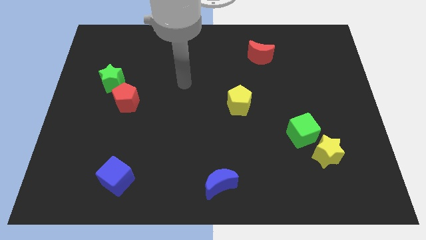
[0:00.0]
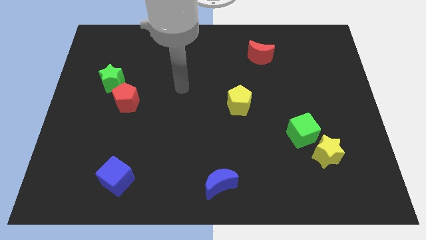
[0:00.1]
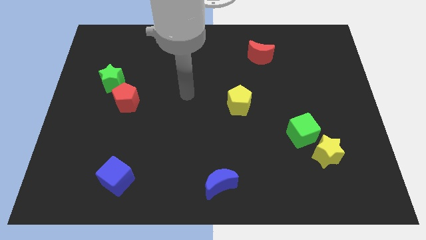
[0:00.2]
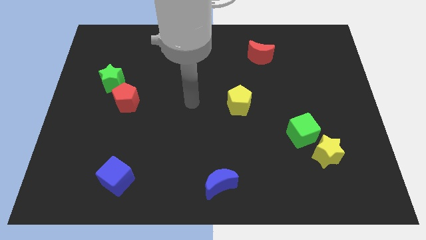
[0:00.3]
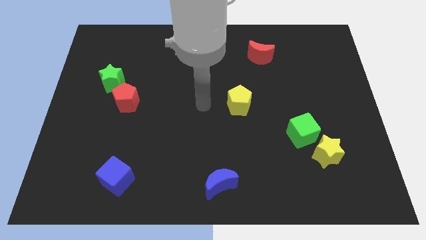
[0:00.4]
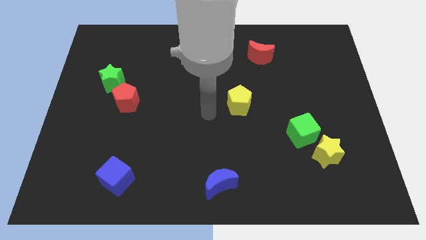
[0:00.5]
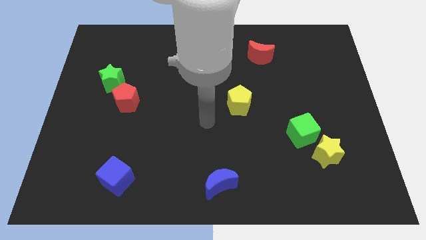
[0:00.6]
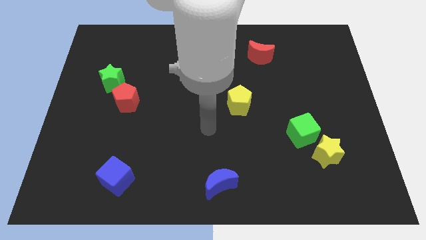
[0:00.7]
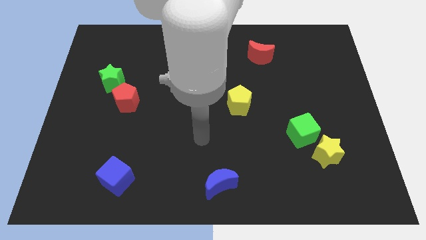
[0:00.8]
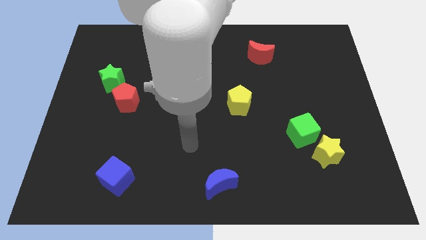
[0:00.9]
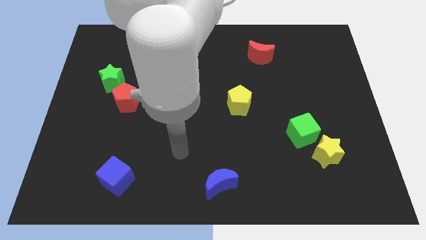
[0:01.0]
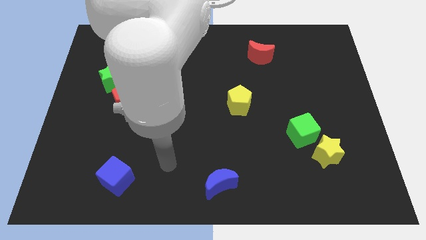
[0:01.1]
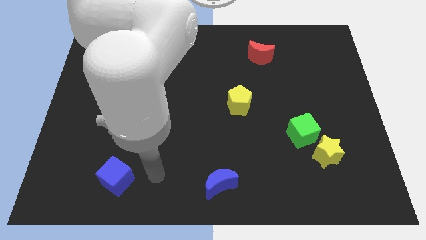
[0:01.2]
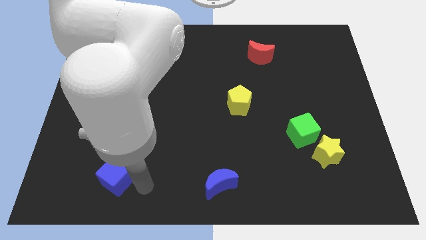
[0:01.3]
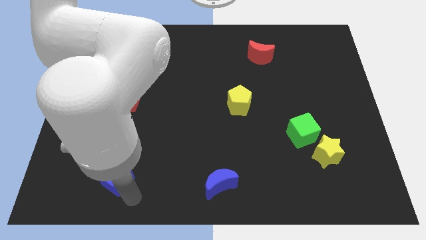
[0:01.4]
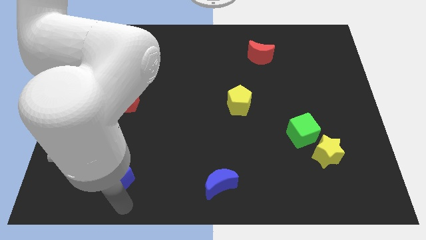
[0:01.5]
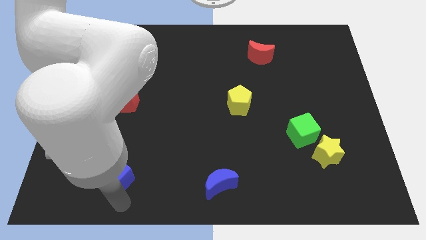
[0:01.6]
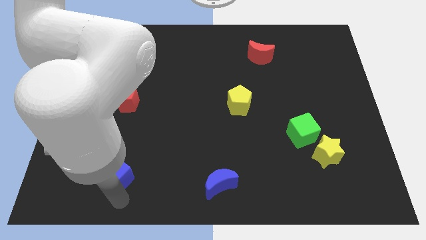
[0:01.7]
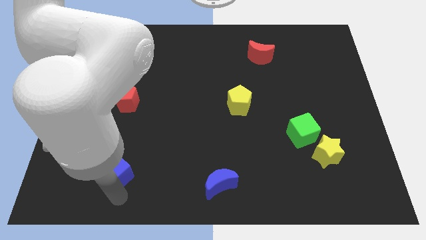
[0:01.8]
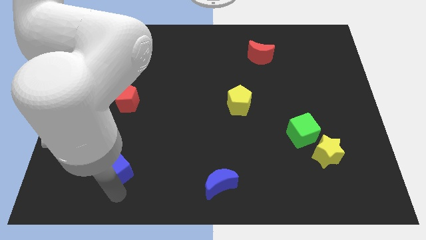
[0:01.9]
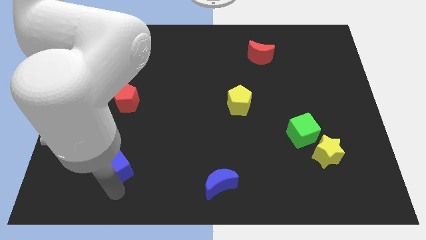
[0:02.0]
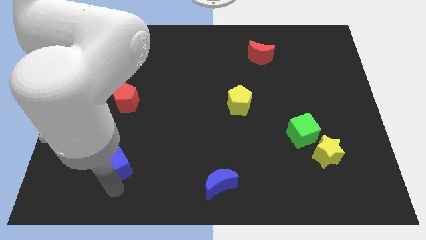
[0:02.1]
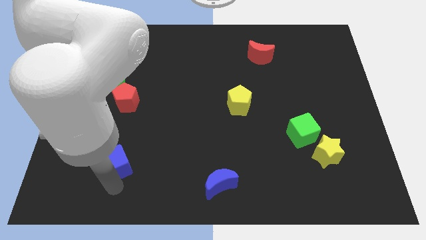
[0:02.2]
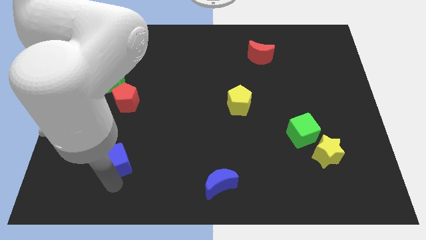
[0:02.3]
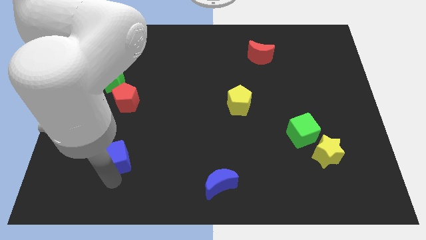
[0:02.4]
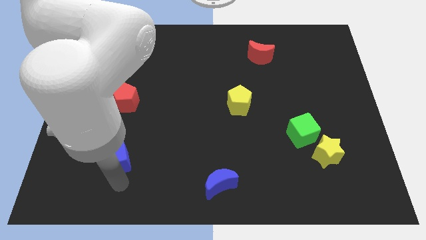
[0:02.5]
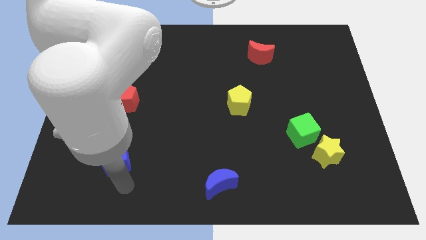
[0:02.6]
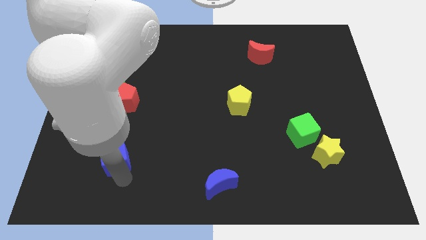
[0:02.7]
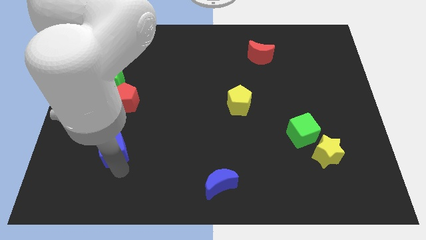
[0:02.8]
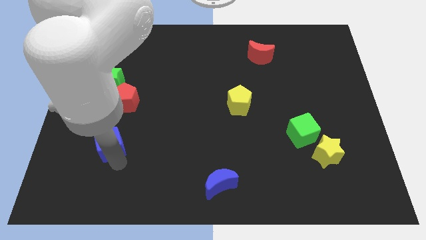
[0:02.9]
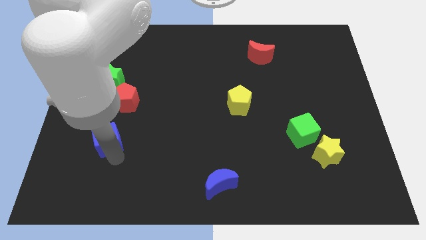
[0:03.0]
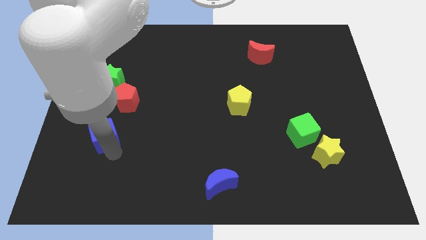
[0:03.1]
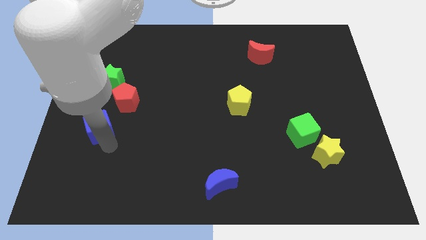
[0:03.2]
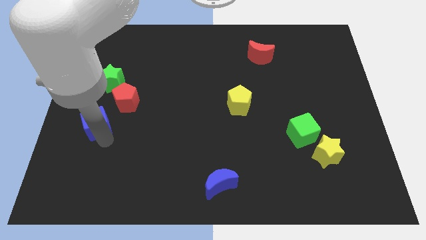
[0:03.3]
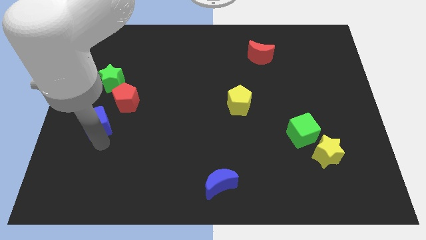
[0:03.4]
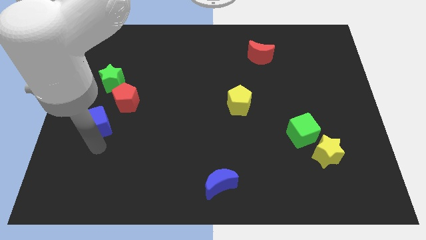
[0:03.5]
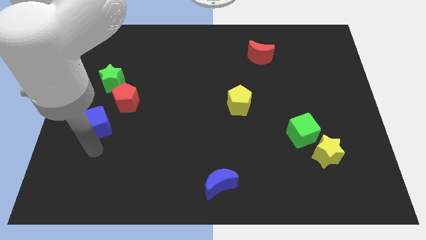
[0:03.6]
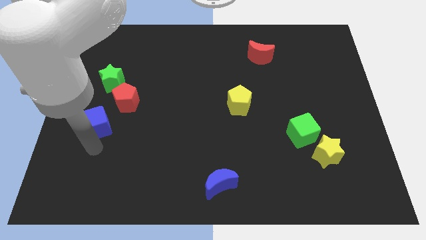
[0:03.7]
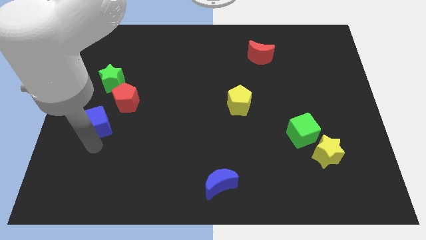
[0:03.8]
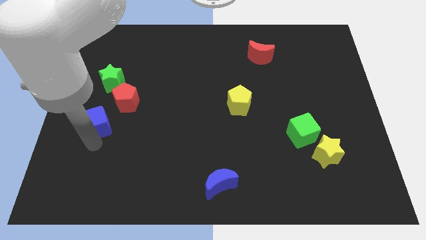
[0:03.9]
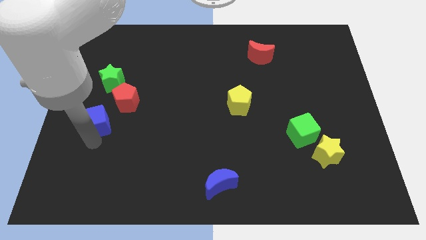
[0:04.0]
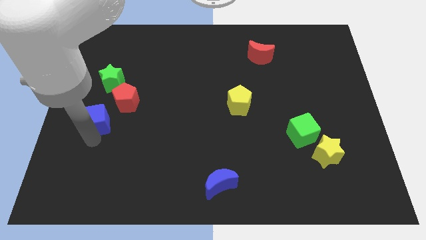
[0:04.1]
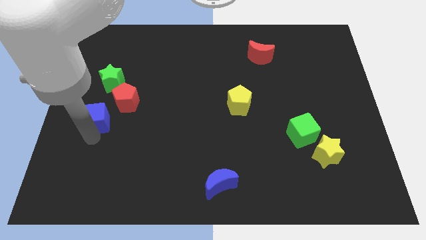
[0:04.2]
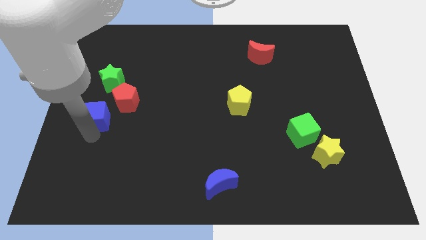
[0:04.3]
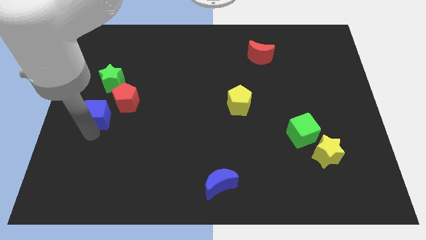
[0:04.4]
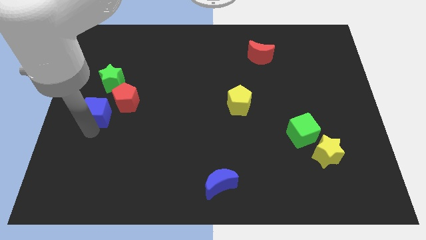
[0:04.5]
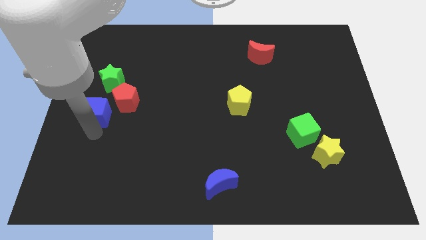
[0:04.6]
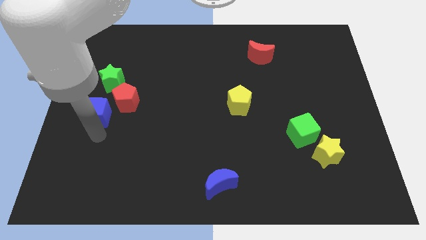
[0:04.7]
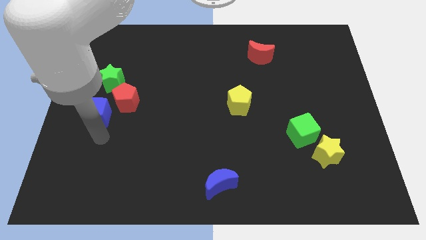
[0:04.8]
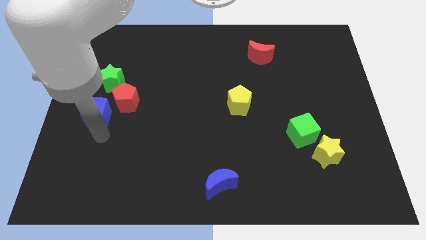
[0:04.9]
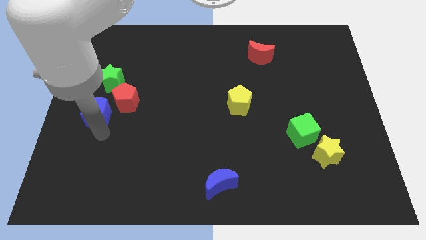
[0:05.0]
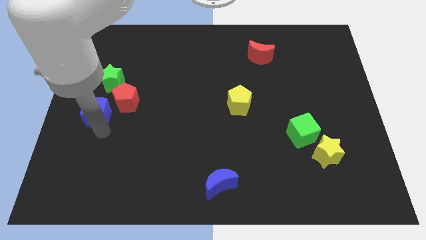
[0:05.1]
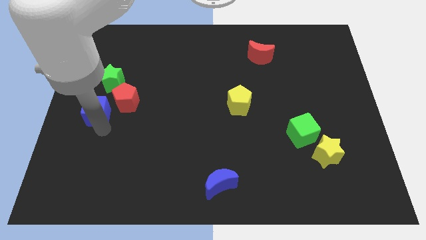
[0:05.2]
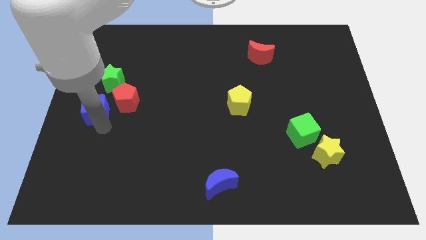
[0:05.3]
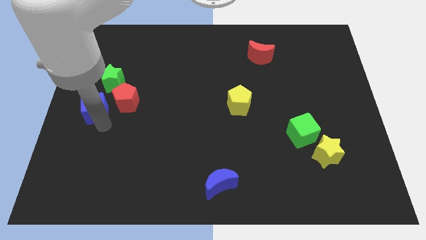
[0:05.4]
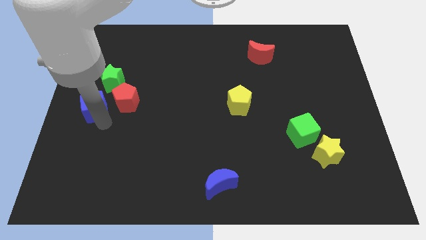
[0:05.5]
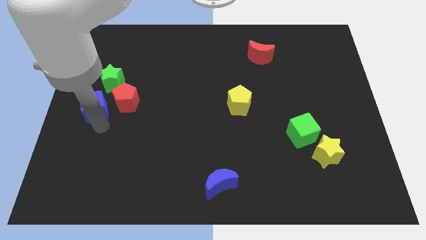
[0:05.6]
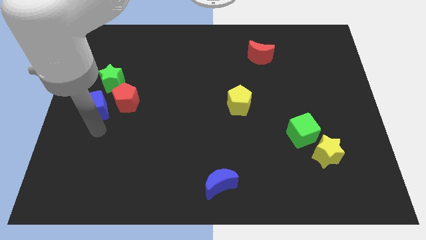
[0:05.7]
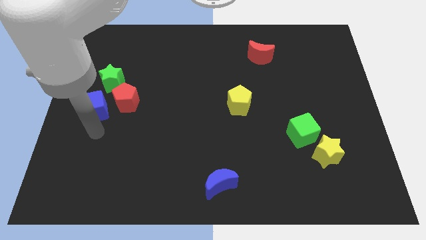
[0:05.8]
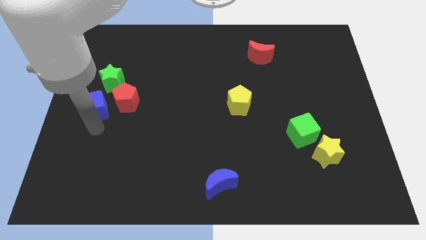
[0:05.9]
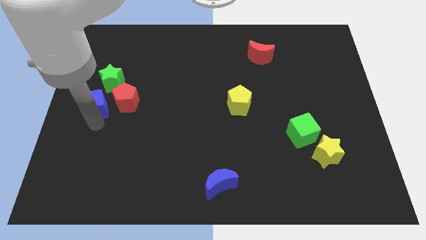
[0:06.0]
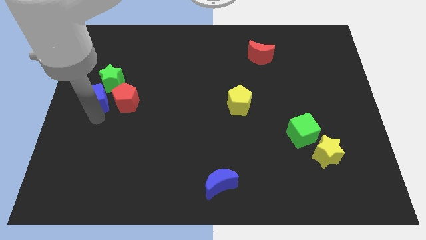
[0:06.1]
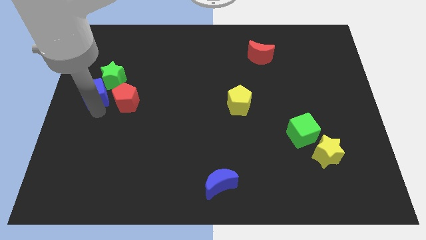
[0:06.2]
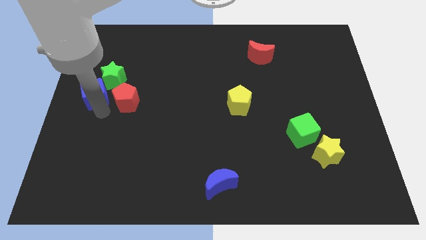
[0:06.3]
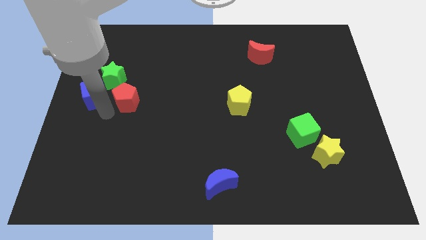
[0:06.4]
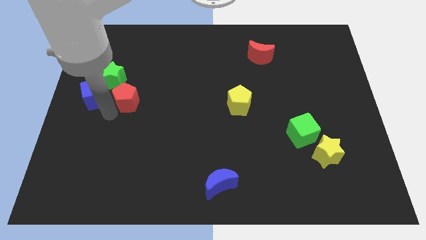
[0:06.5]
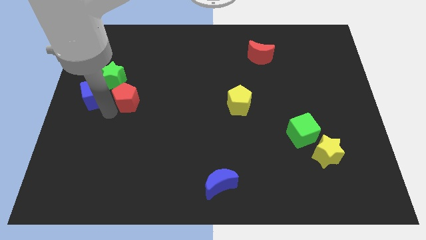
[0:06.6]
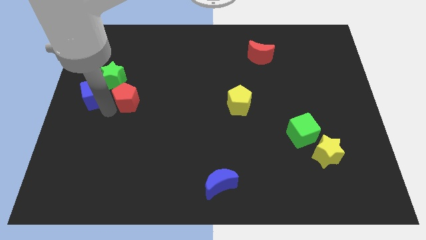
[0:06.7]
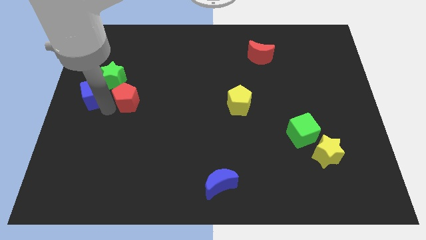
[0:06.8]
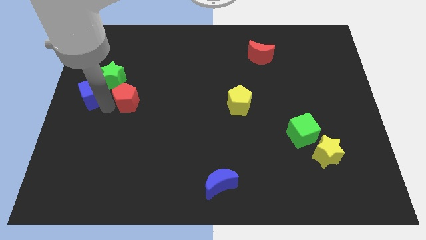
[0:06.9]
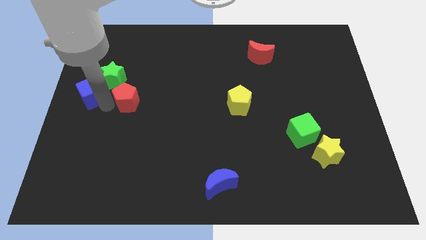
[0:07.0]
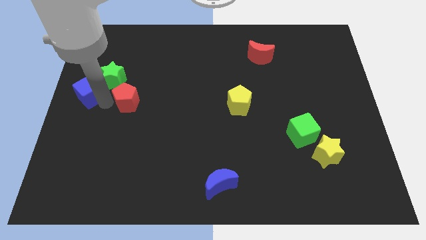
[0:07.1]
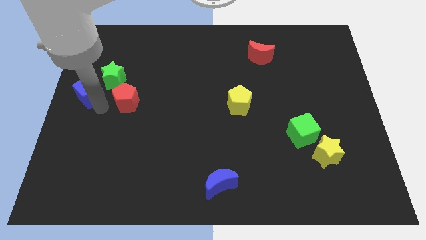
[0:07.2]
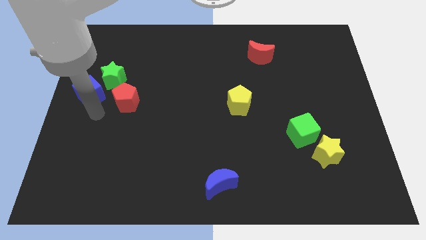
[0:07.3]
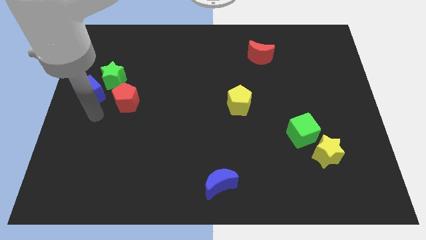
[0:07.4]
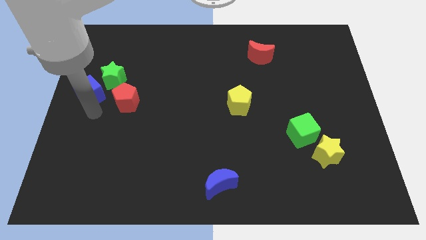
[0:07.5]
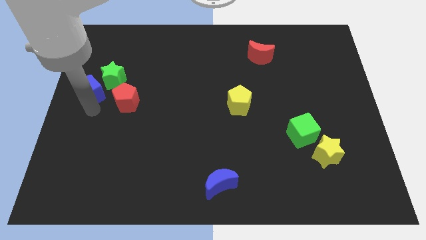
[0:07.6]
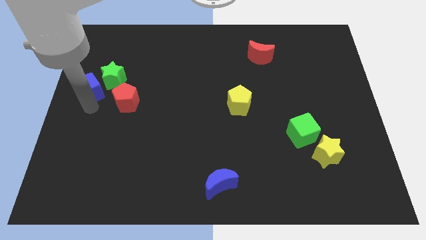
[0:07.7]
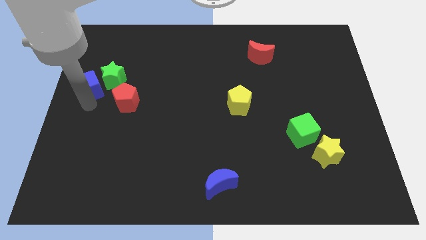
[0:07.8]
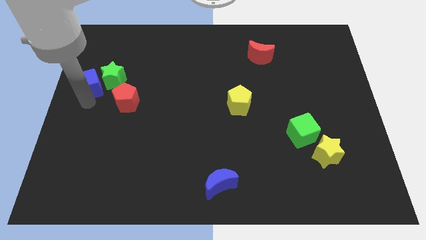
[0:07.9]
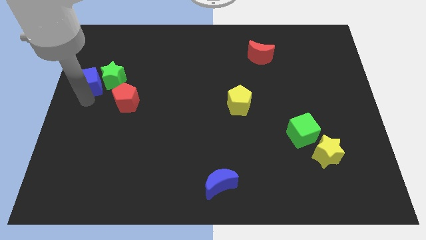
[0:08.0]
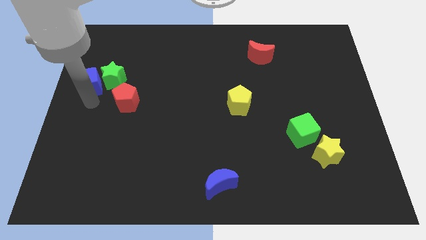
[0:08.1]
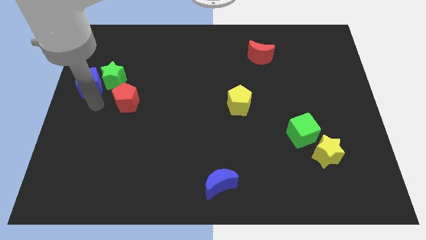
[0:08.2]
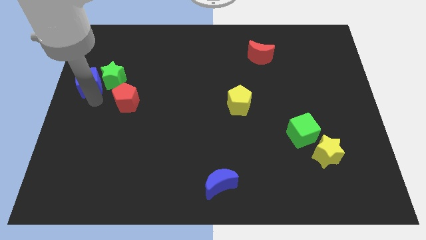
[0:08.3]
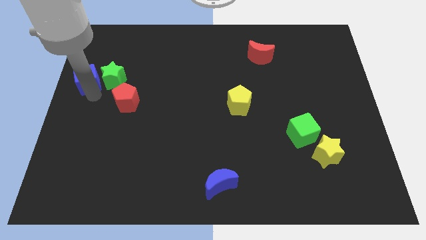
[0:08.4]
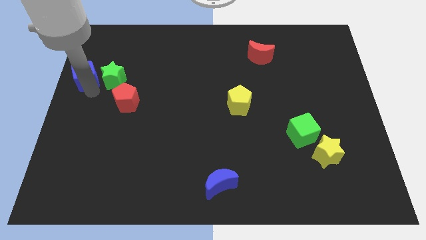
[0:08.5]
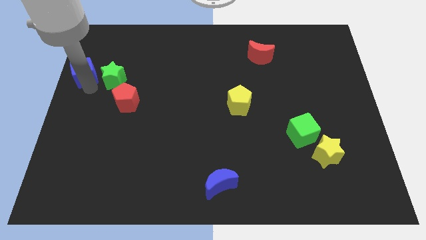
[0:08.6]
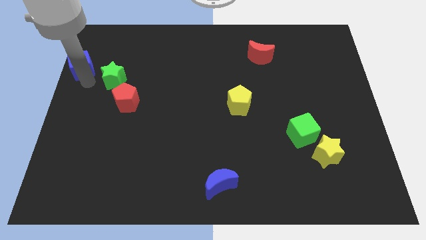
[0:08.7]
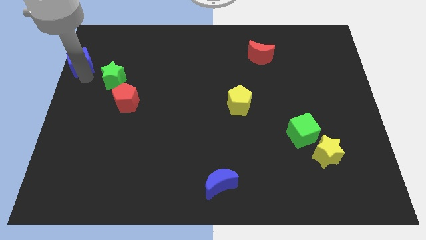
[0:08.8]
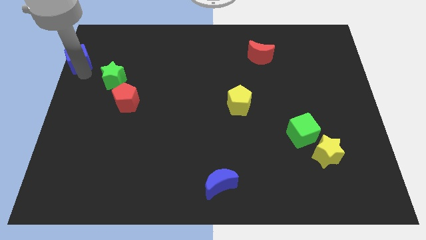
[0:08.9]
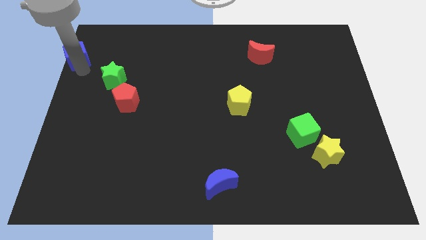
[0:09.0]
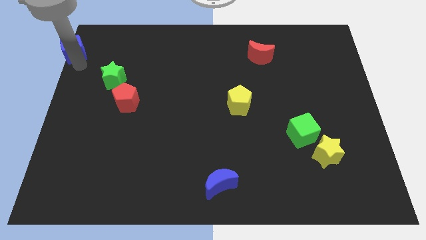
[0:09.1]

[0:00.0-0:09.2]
put the blue cube to the top left corner
